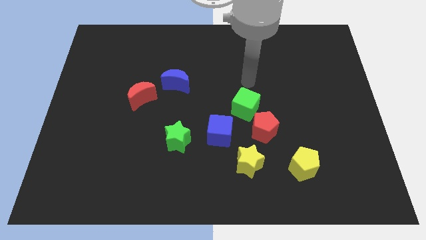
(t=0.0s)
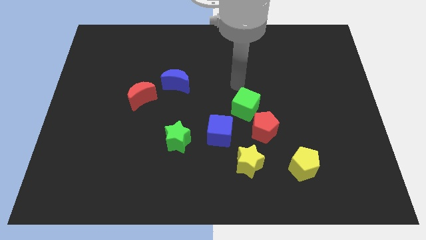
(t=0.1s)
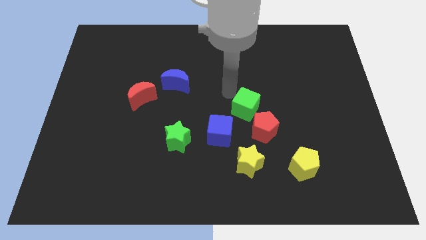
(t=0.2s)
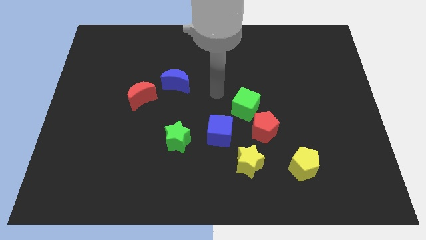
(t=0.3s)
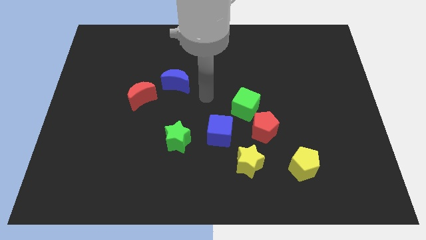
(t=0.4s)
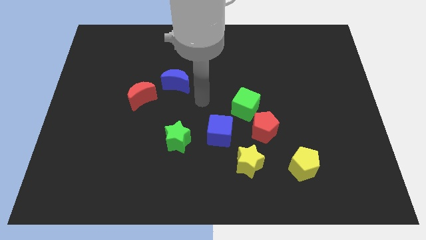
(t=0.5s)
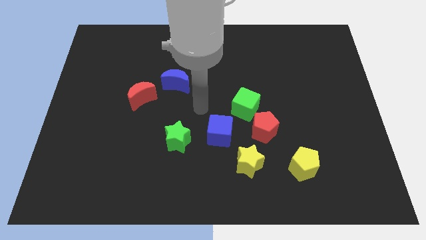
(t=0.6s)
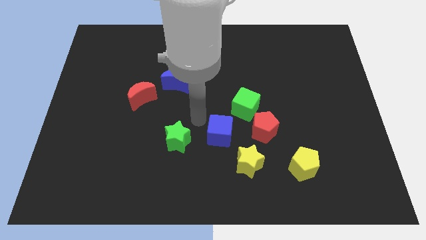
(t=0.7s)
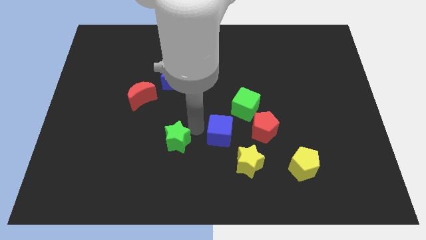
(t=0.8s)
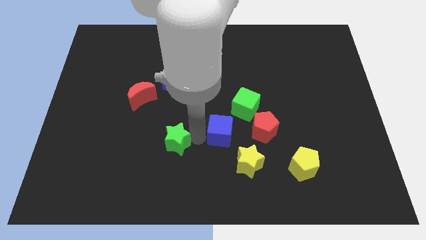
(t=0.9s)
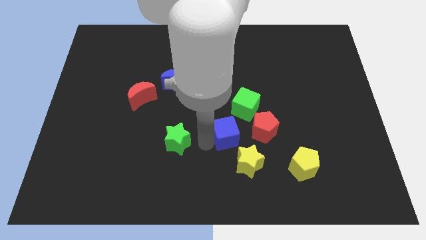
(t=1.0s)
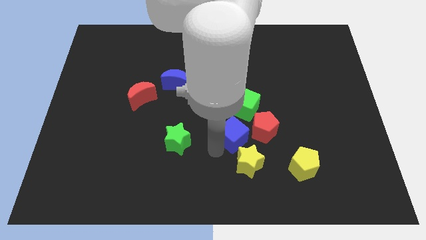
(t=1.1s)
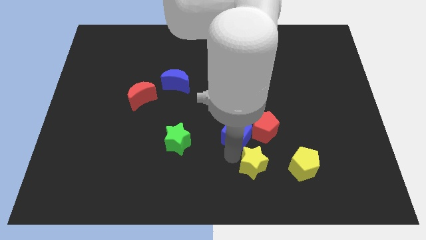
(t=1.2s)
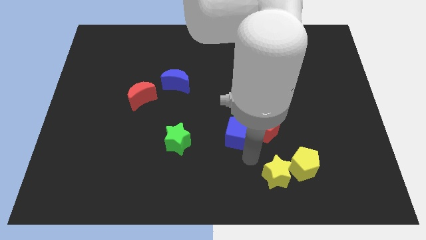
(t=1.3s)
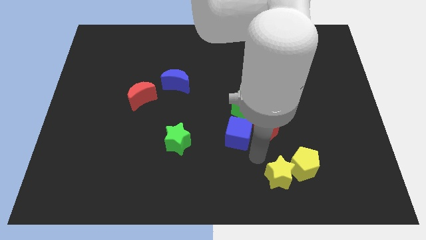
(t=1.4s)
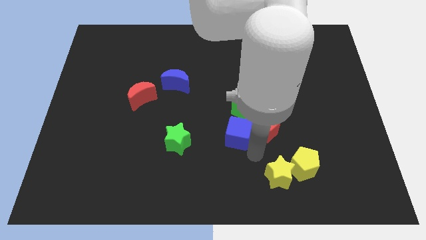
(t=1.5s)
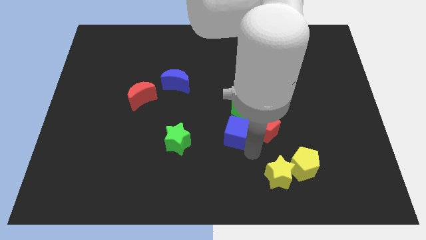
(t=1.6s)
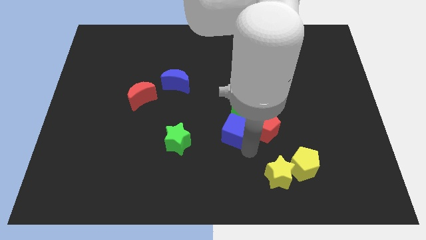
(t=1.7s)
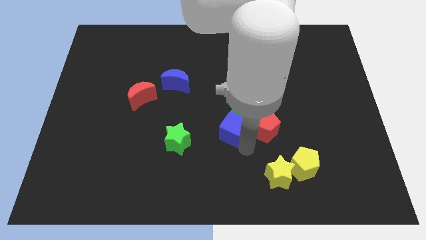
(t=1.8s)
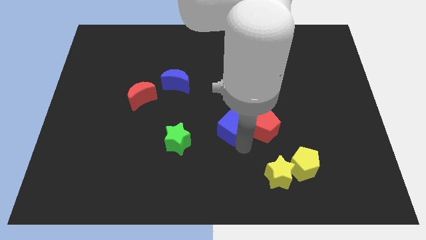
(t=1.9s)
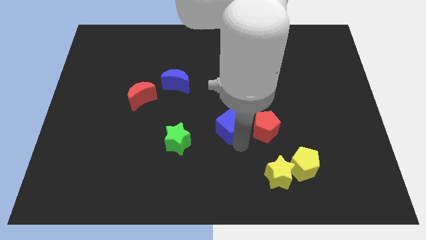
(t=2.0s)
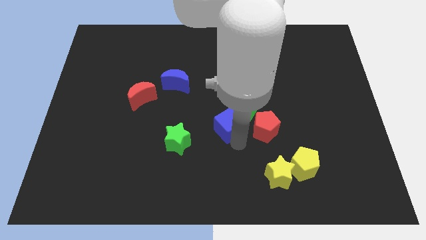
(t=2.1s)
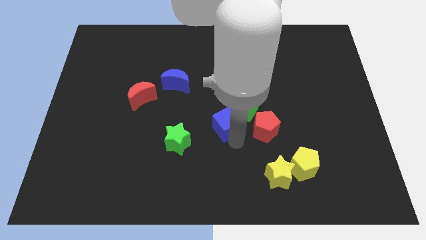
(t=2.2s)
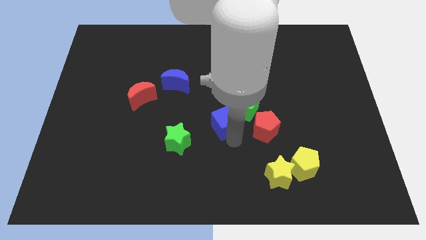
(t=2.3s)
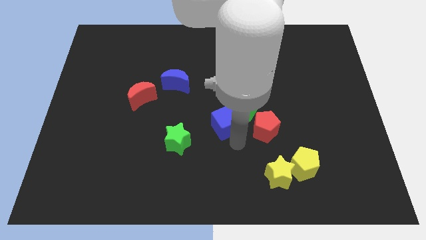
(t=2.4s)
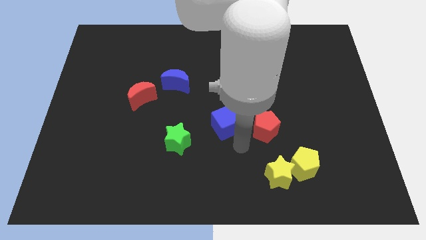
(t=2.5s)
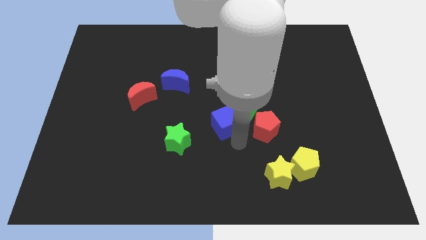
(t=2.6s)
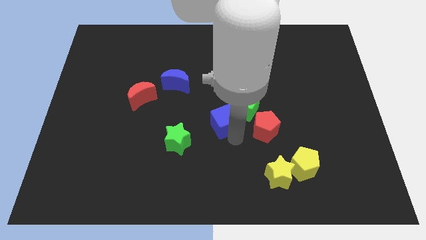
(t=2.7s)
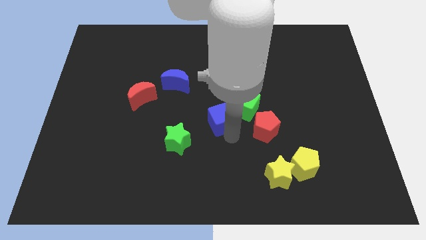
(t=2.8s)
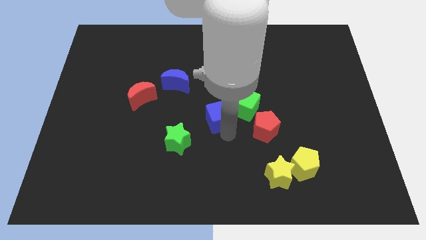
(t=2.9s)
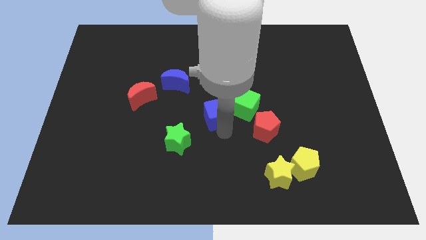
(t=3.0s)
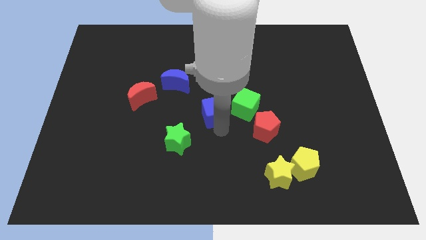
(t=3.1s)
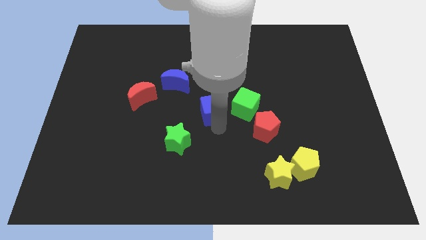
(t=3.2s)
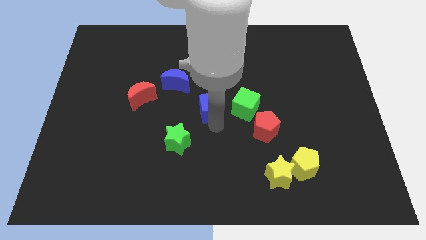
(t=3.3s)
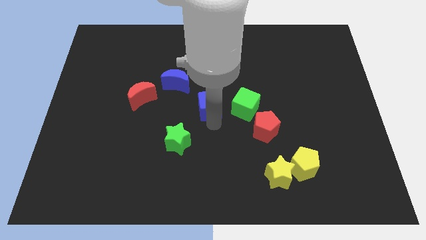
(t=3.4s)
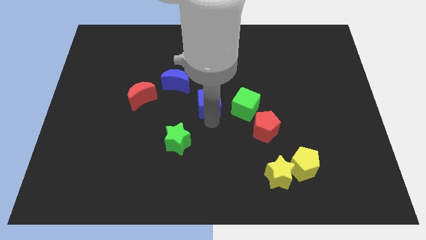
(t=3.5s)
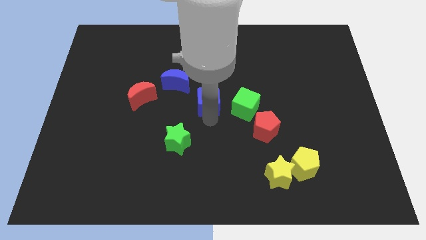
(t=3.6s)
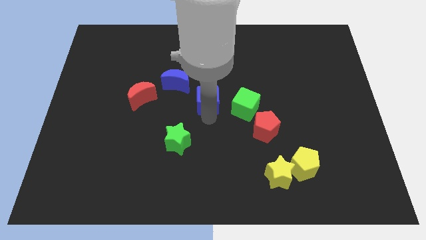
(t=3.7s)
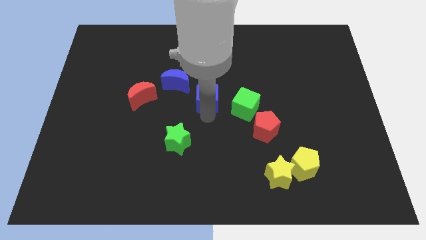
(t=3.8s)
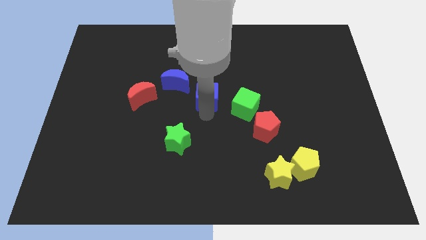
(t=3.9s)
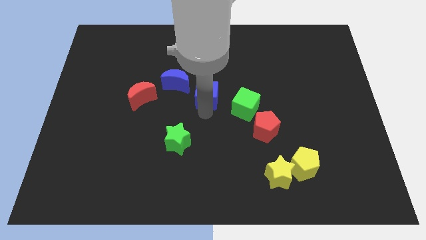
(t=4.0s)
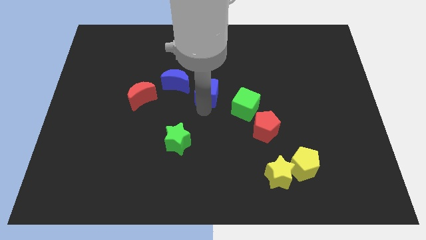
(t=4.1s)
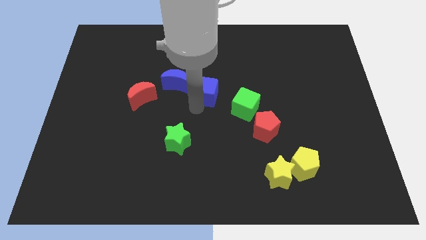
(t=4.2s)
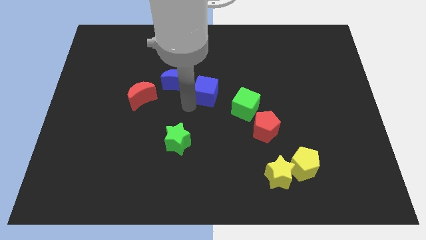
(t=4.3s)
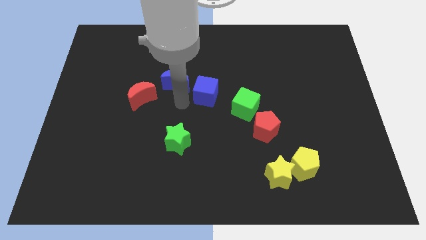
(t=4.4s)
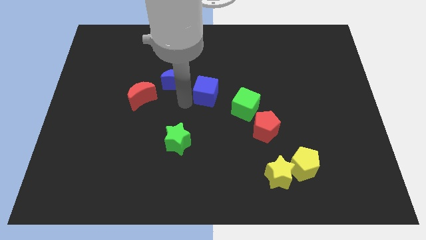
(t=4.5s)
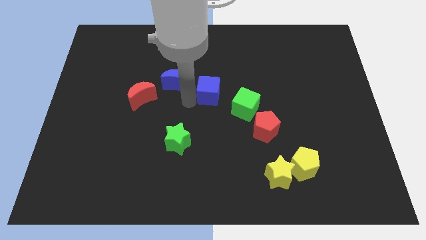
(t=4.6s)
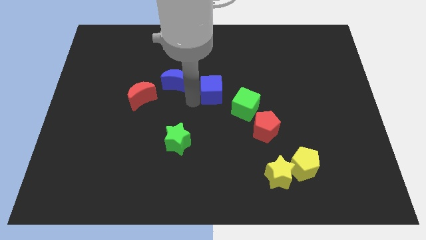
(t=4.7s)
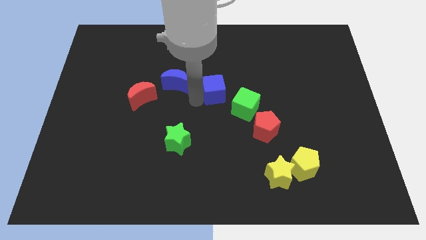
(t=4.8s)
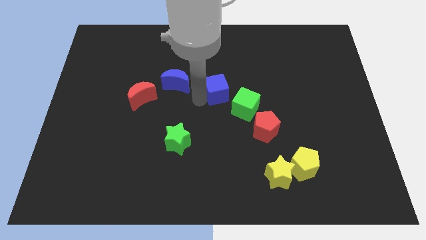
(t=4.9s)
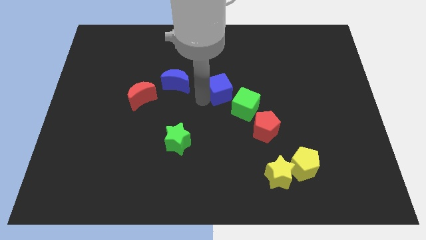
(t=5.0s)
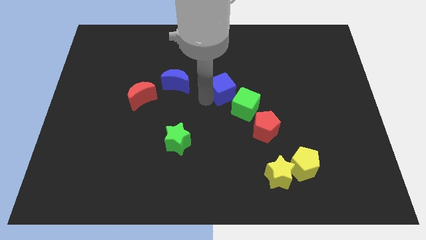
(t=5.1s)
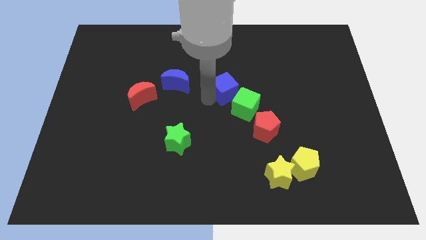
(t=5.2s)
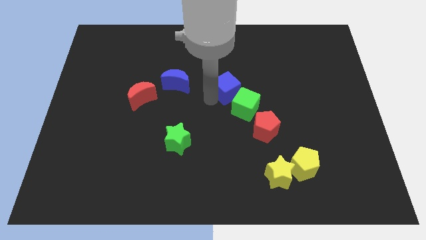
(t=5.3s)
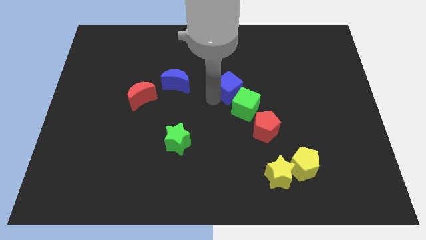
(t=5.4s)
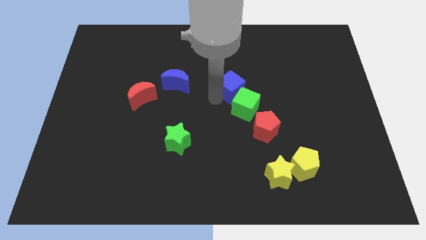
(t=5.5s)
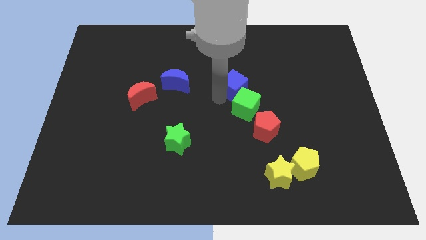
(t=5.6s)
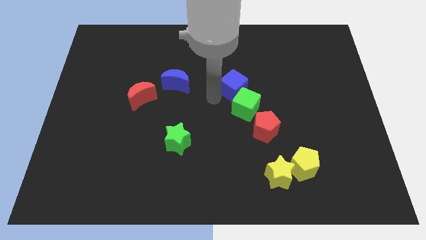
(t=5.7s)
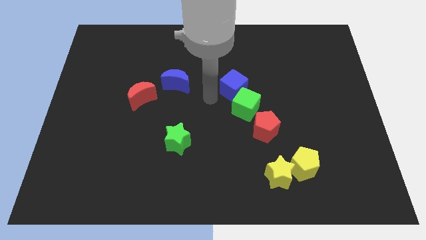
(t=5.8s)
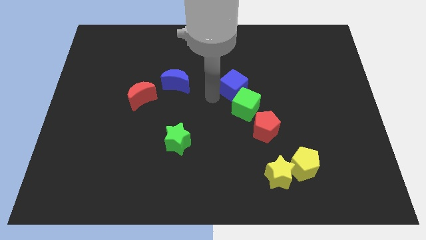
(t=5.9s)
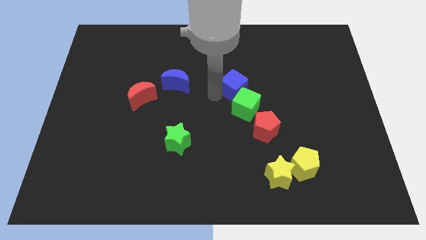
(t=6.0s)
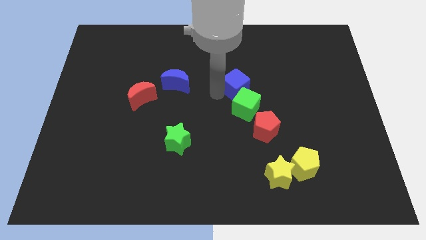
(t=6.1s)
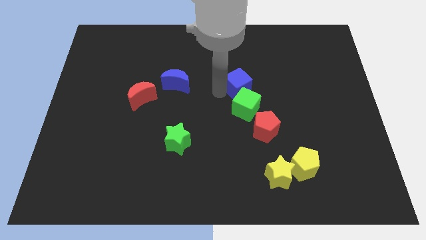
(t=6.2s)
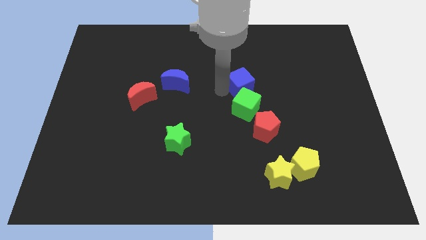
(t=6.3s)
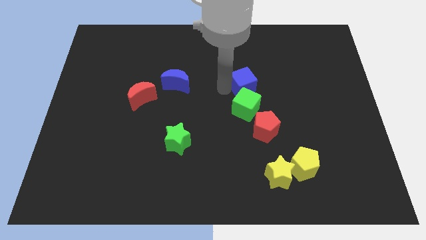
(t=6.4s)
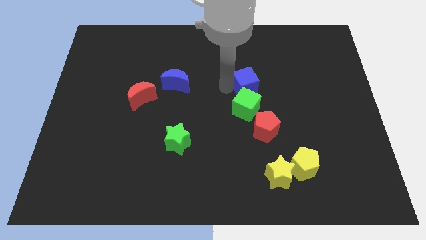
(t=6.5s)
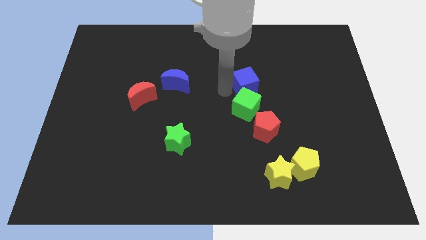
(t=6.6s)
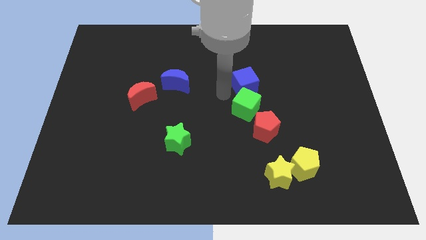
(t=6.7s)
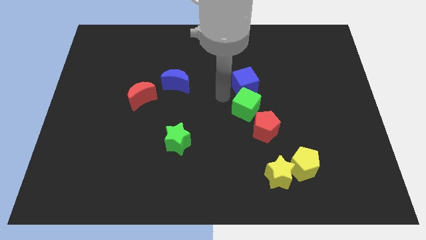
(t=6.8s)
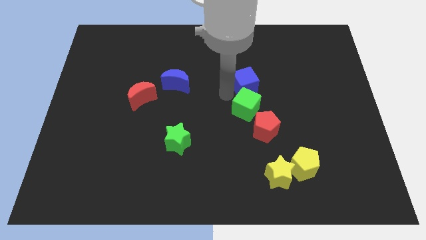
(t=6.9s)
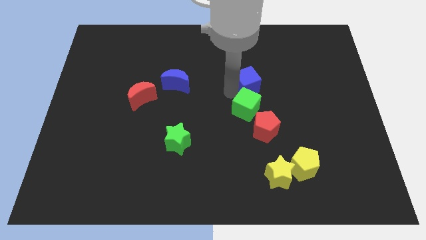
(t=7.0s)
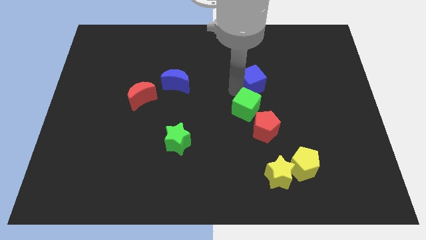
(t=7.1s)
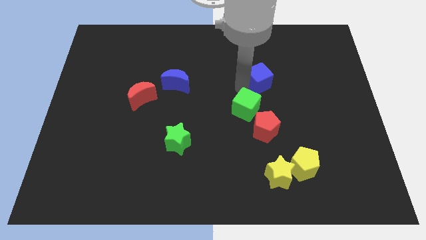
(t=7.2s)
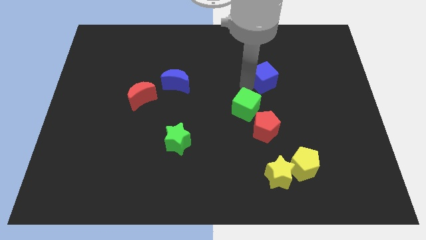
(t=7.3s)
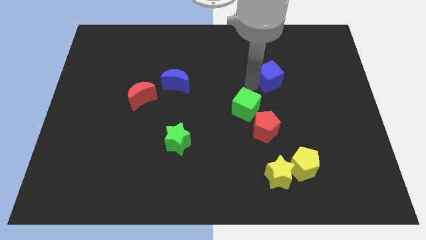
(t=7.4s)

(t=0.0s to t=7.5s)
slide the blue cube diagonally up and to the right

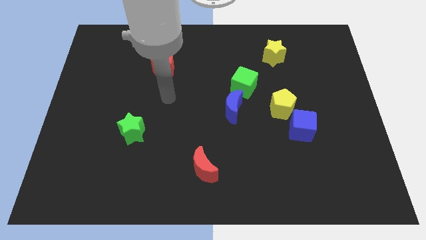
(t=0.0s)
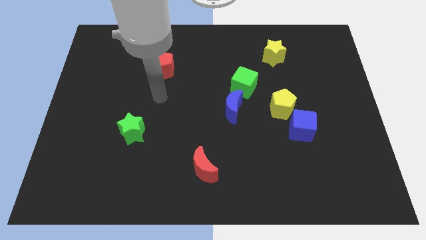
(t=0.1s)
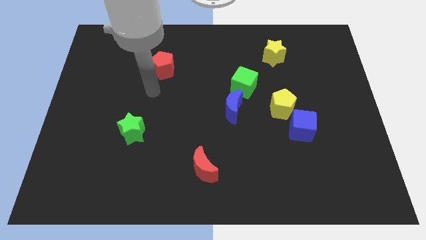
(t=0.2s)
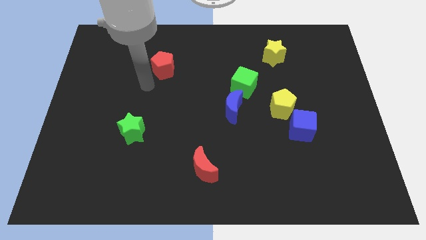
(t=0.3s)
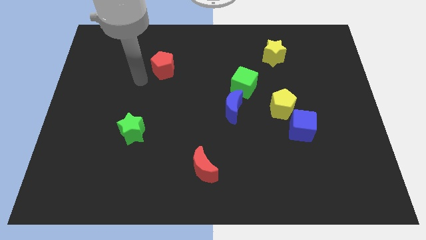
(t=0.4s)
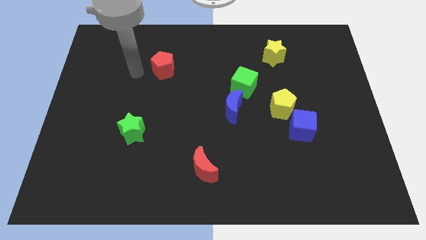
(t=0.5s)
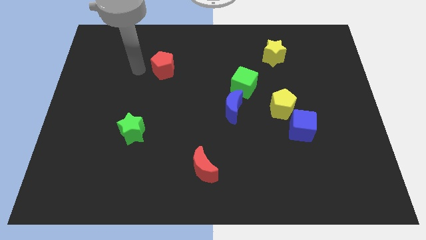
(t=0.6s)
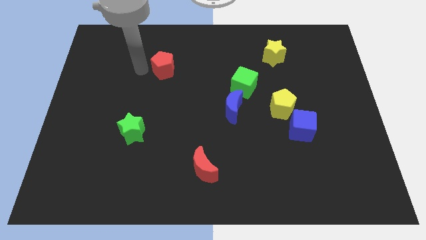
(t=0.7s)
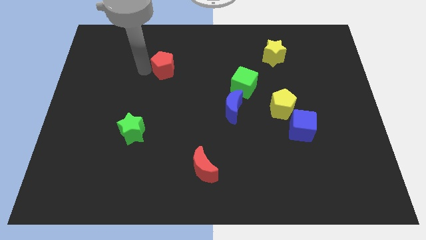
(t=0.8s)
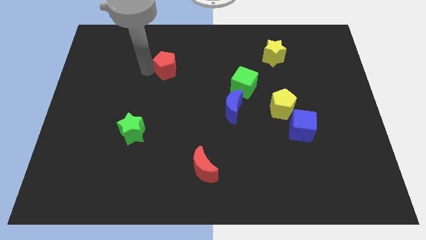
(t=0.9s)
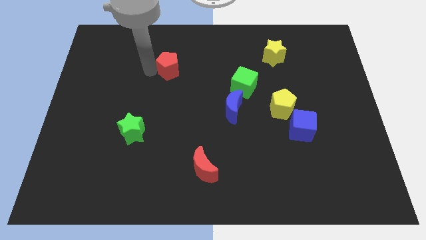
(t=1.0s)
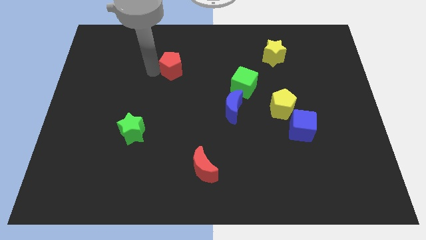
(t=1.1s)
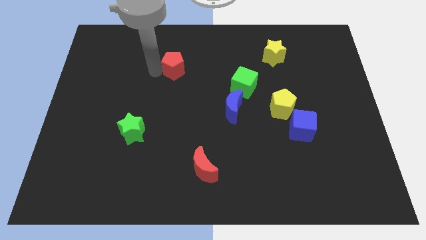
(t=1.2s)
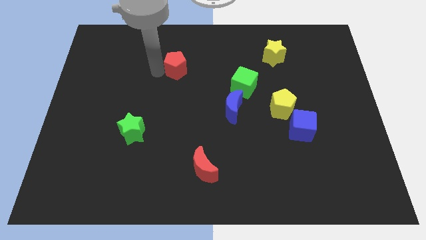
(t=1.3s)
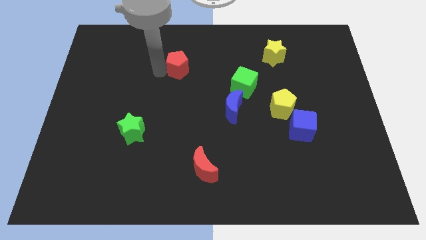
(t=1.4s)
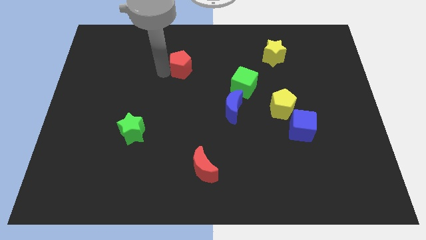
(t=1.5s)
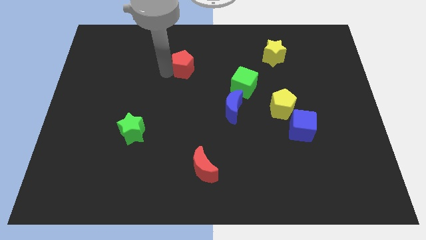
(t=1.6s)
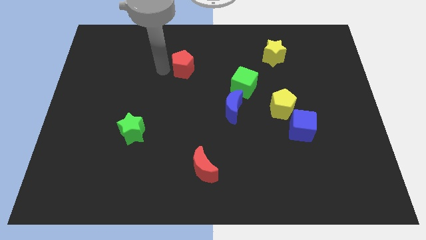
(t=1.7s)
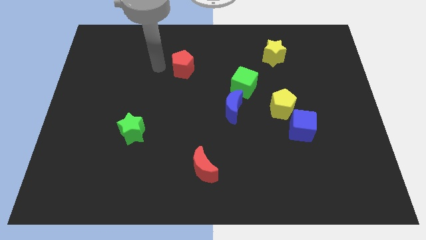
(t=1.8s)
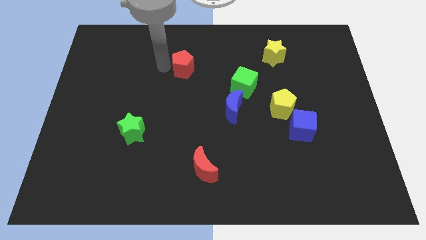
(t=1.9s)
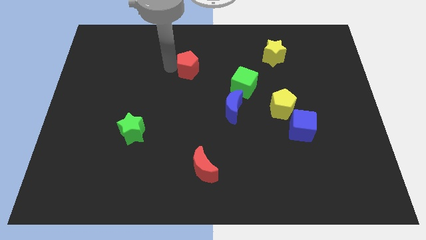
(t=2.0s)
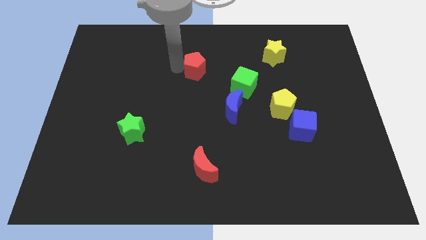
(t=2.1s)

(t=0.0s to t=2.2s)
push the red pentagon to the right somewhat
